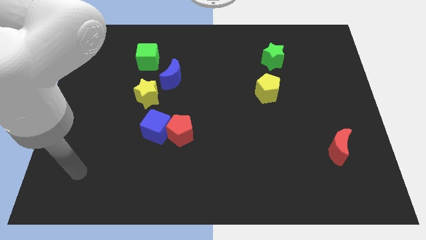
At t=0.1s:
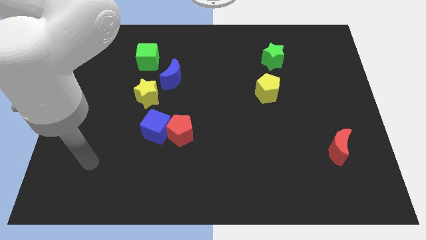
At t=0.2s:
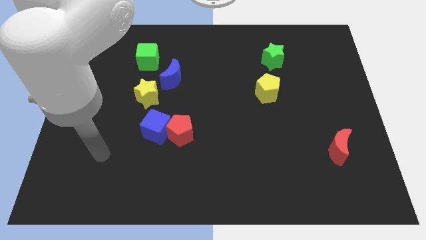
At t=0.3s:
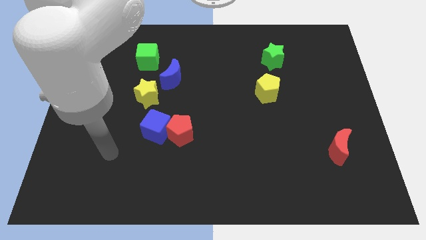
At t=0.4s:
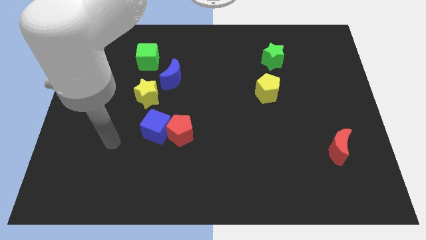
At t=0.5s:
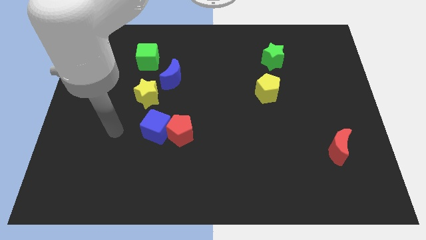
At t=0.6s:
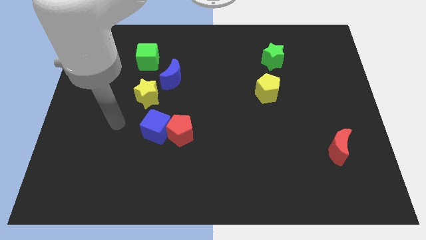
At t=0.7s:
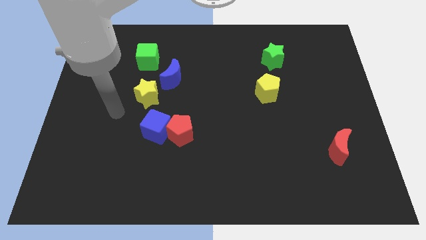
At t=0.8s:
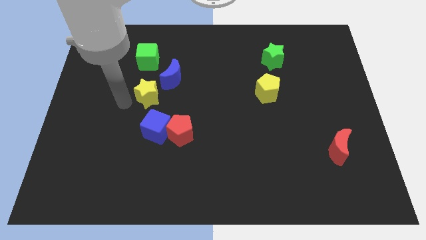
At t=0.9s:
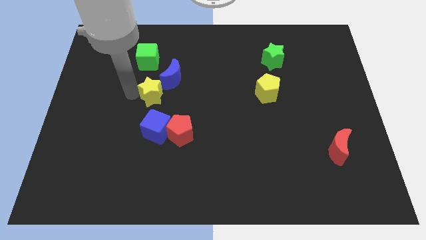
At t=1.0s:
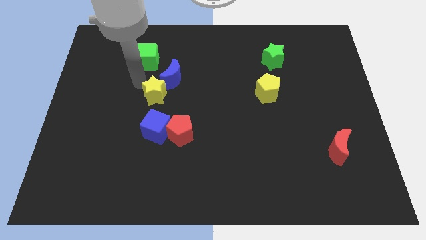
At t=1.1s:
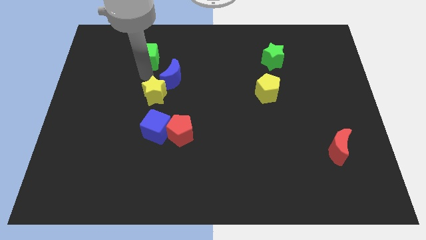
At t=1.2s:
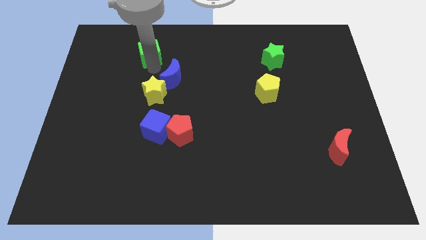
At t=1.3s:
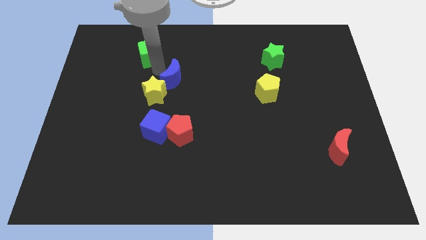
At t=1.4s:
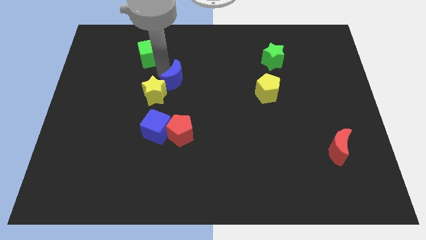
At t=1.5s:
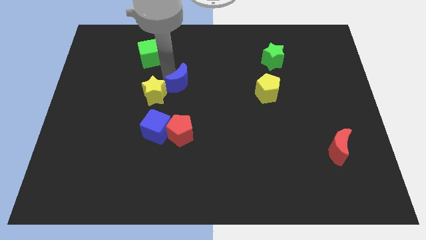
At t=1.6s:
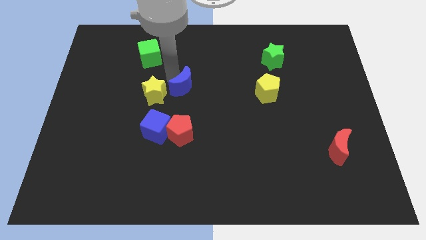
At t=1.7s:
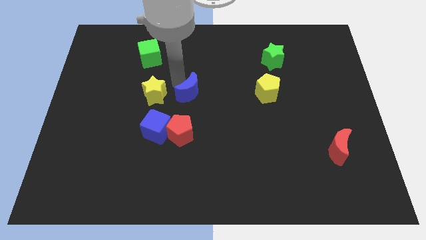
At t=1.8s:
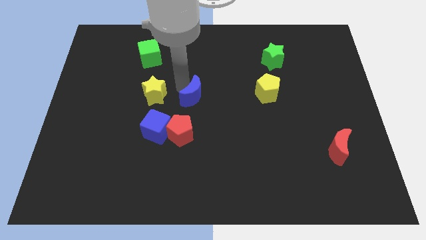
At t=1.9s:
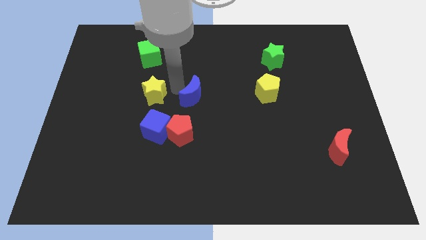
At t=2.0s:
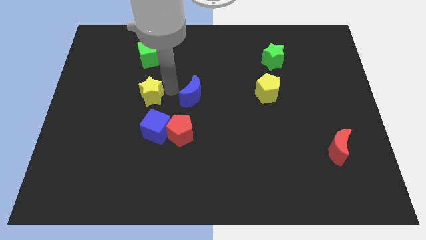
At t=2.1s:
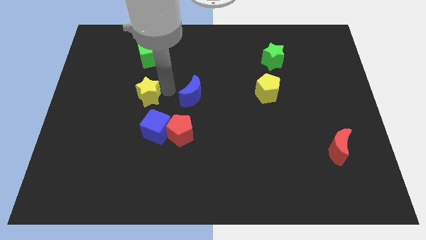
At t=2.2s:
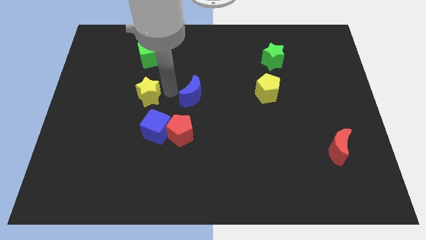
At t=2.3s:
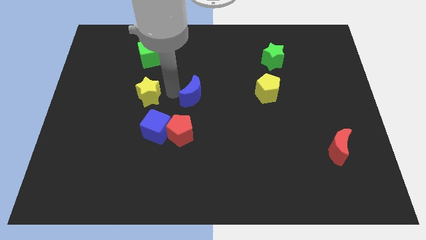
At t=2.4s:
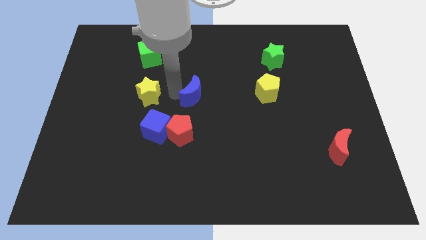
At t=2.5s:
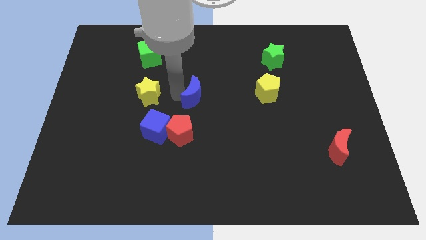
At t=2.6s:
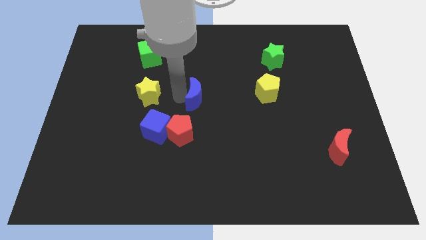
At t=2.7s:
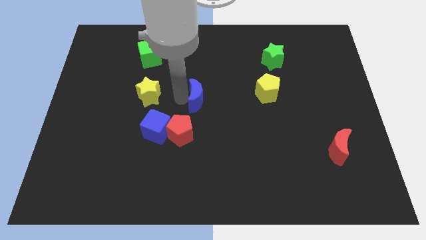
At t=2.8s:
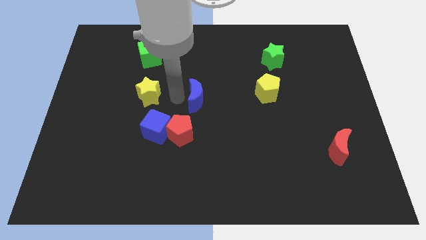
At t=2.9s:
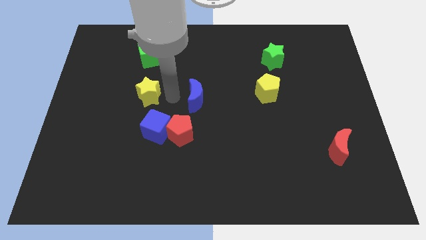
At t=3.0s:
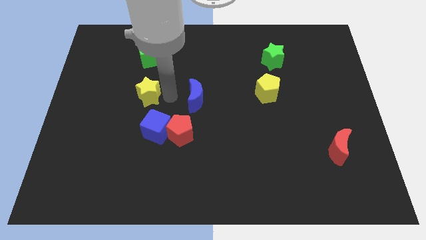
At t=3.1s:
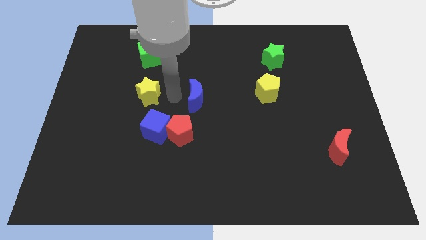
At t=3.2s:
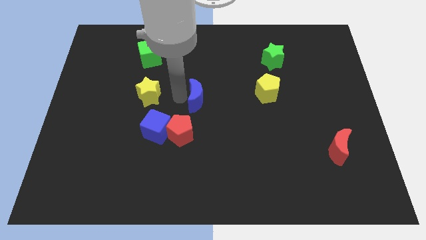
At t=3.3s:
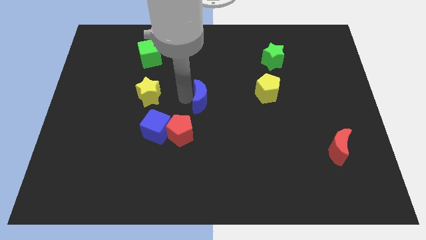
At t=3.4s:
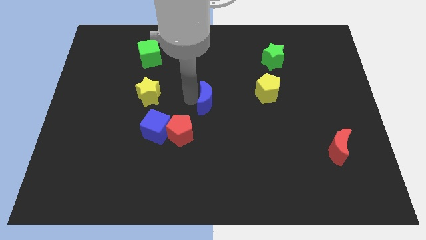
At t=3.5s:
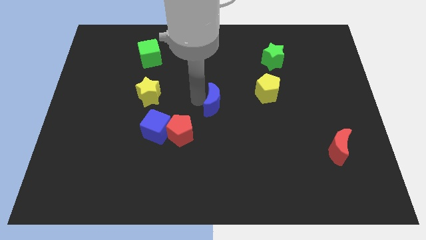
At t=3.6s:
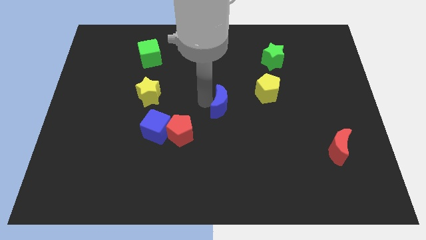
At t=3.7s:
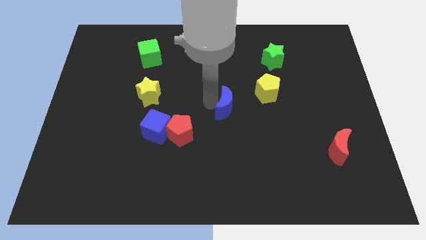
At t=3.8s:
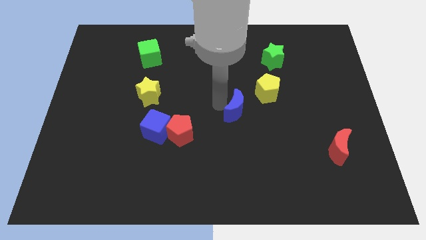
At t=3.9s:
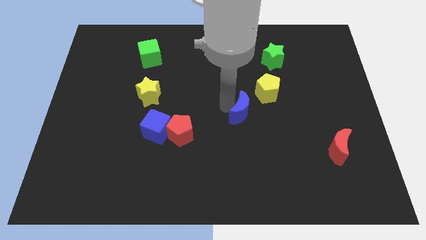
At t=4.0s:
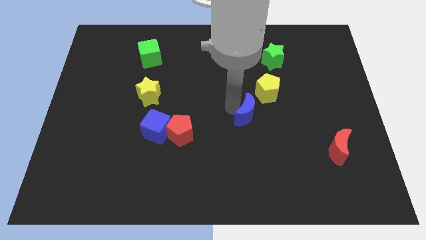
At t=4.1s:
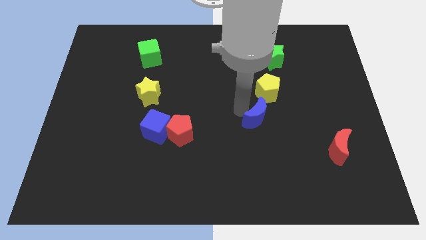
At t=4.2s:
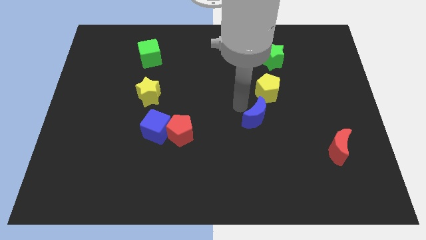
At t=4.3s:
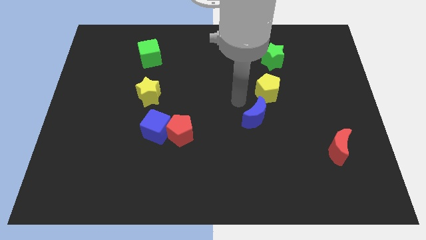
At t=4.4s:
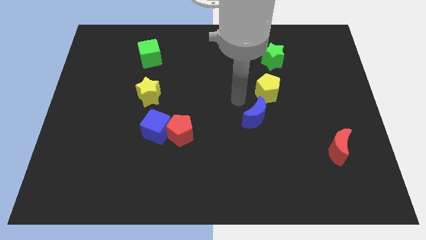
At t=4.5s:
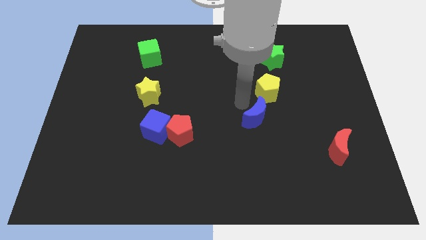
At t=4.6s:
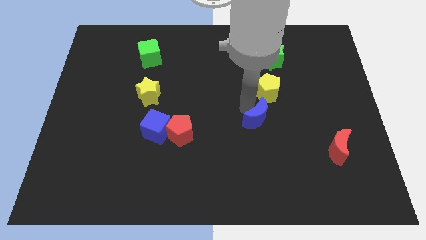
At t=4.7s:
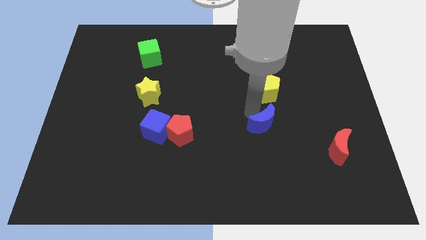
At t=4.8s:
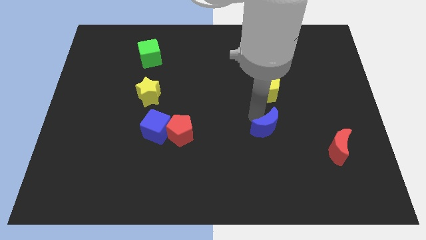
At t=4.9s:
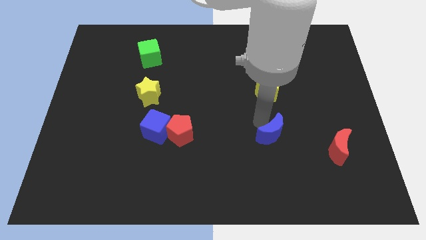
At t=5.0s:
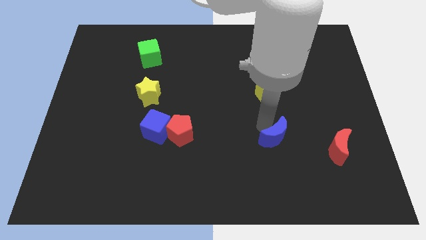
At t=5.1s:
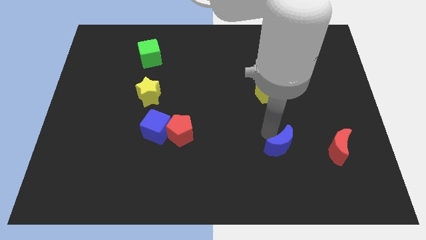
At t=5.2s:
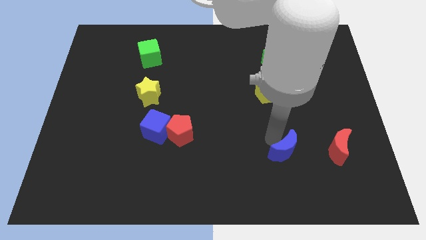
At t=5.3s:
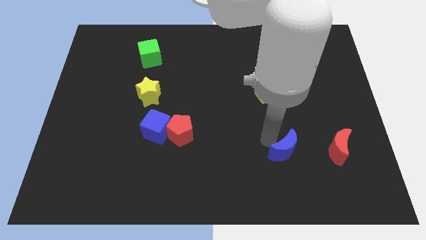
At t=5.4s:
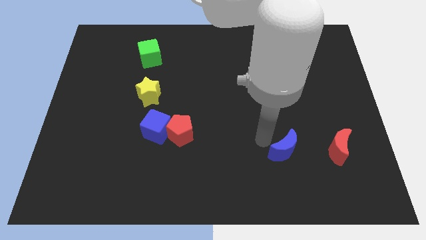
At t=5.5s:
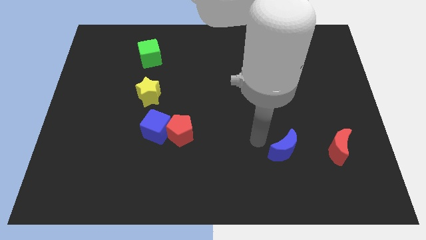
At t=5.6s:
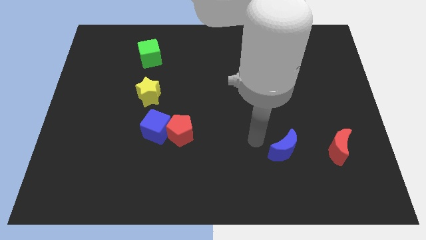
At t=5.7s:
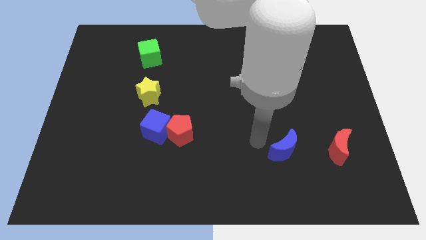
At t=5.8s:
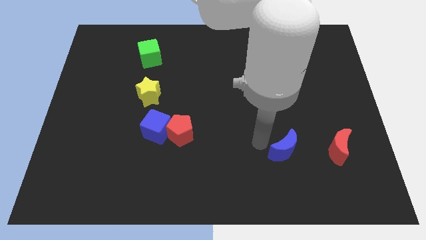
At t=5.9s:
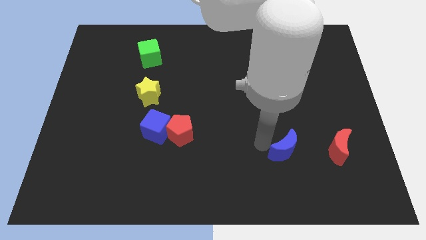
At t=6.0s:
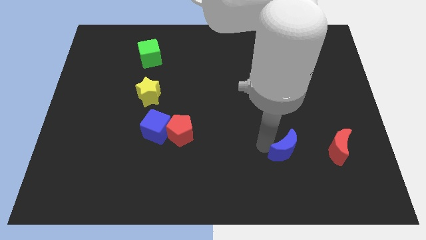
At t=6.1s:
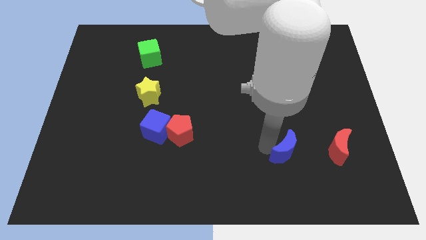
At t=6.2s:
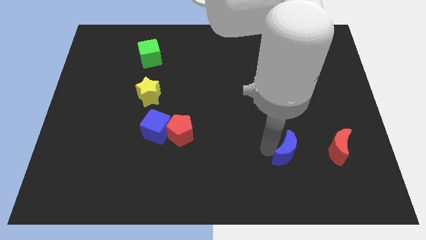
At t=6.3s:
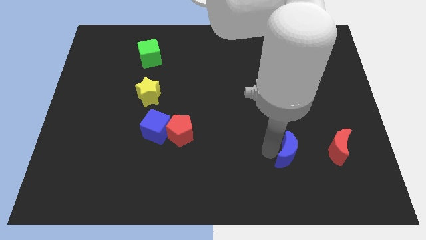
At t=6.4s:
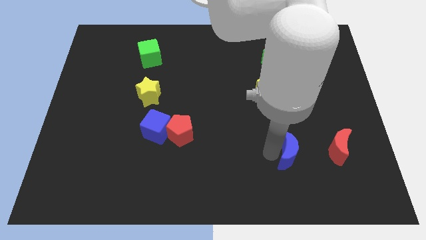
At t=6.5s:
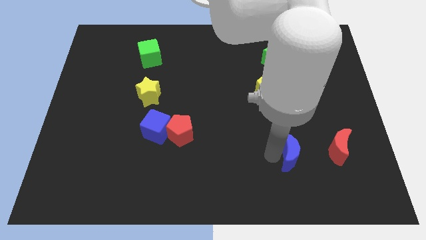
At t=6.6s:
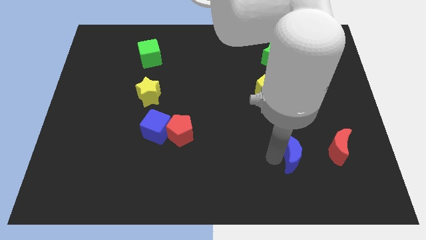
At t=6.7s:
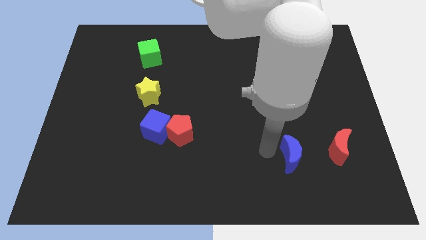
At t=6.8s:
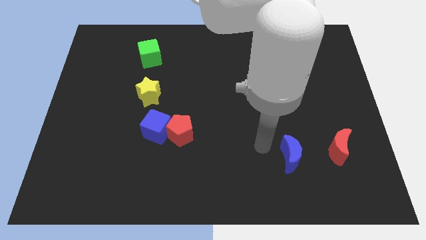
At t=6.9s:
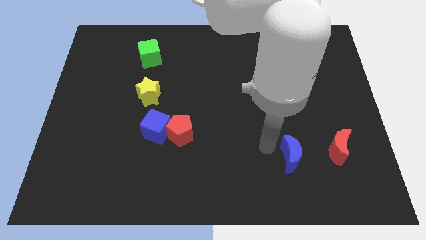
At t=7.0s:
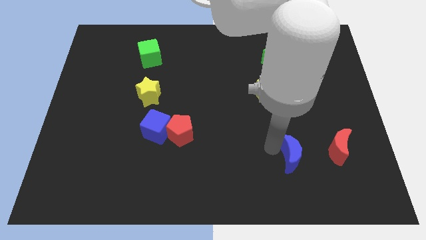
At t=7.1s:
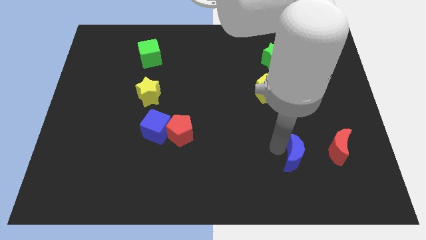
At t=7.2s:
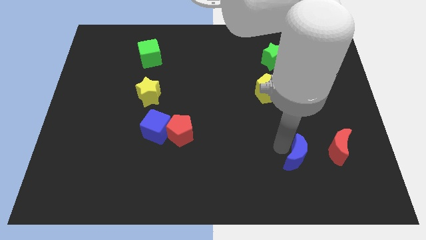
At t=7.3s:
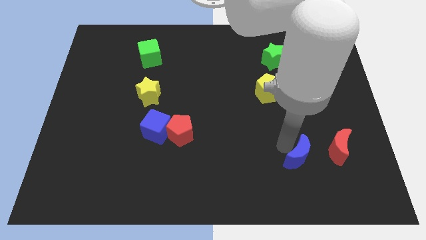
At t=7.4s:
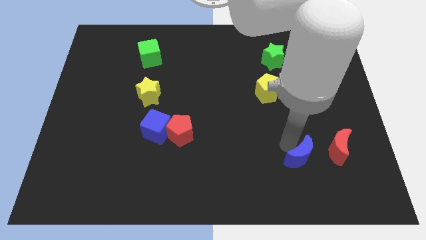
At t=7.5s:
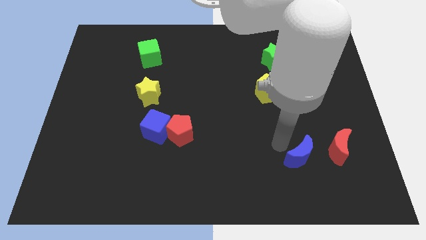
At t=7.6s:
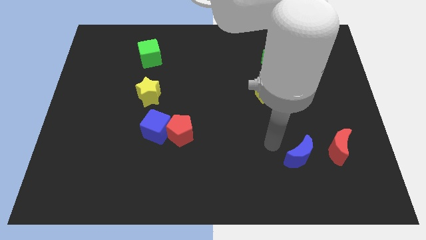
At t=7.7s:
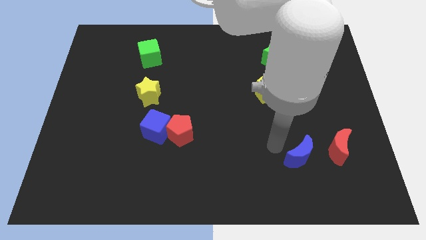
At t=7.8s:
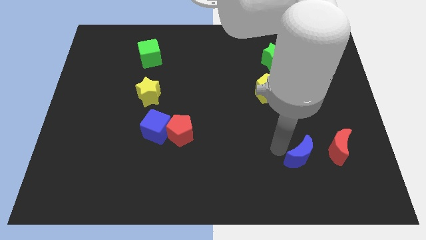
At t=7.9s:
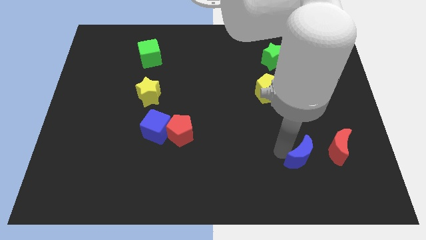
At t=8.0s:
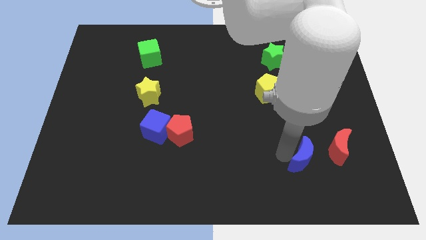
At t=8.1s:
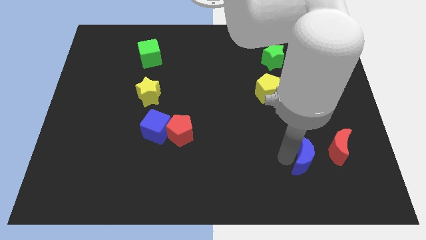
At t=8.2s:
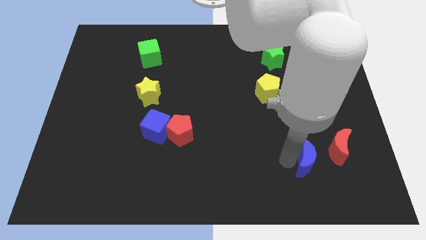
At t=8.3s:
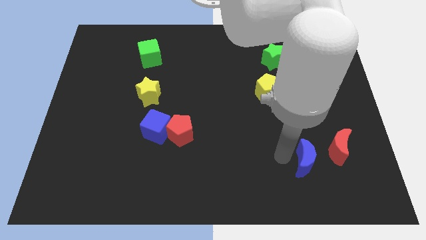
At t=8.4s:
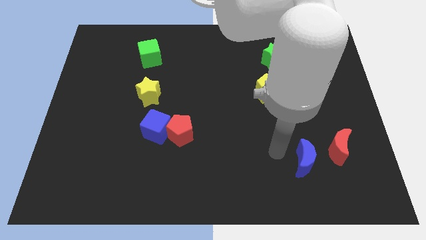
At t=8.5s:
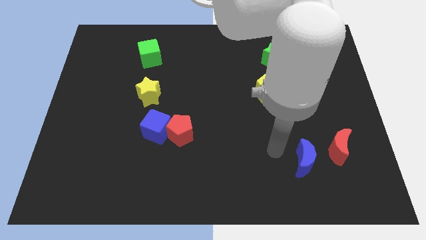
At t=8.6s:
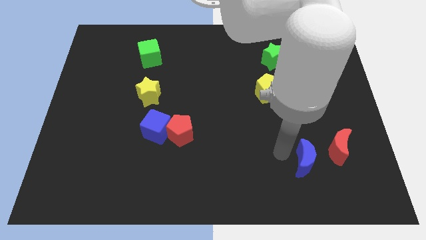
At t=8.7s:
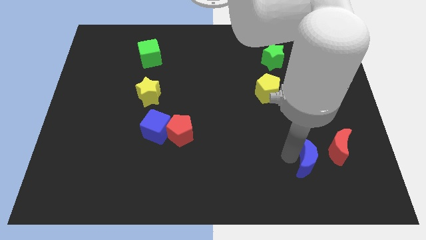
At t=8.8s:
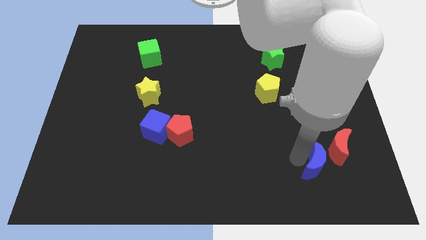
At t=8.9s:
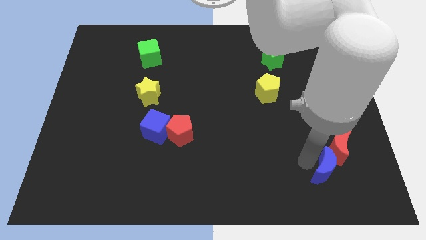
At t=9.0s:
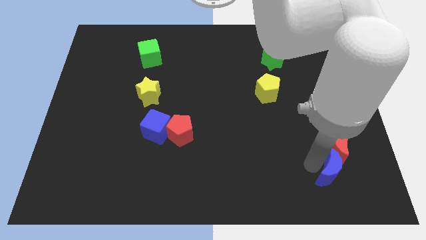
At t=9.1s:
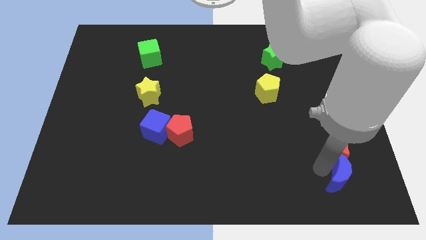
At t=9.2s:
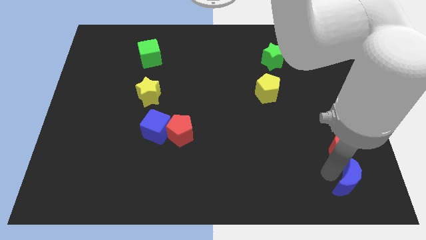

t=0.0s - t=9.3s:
move the blue moon to the bottom right corner
